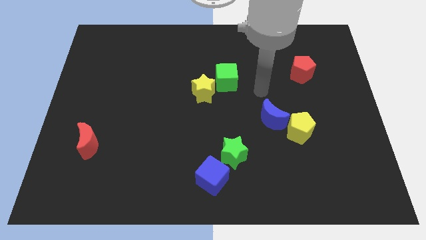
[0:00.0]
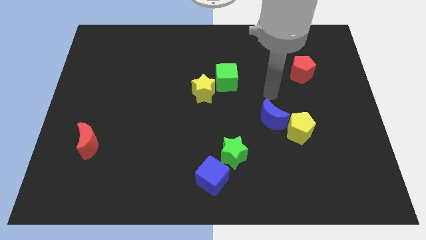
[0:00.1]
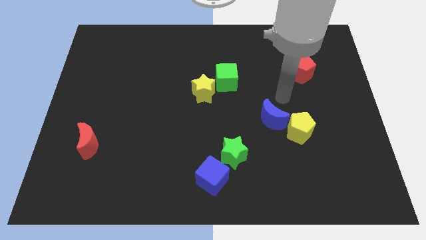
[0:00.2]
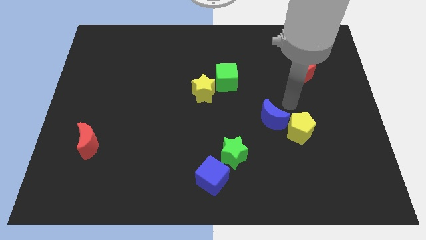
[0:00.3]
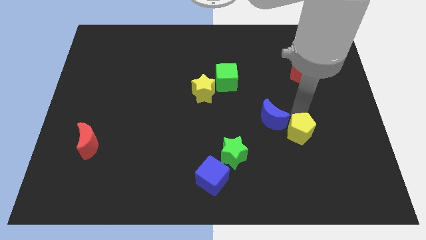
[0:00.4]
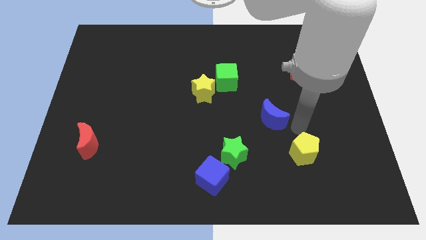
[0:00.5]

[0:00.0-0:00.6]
separate the blue moon from the yellow pentagon

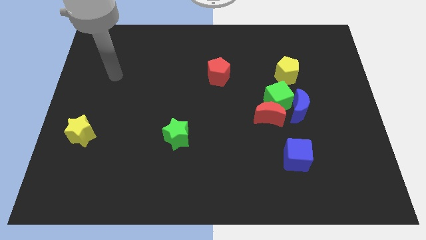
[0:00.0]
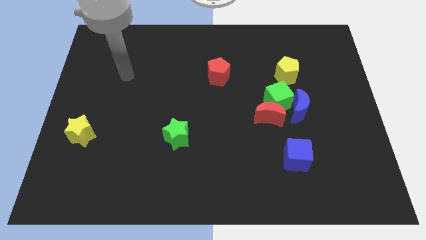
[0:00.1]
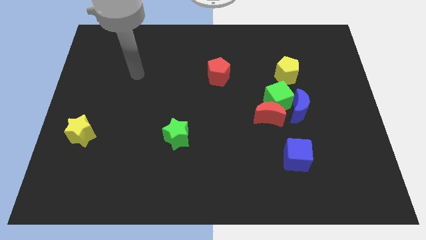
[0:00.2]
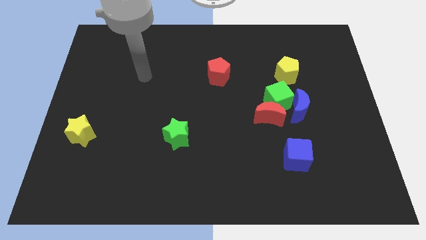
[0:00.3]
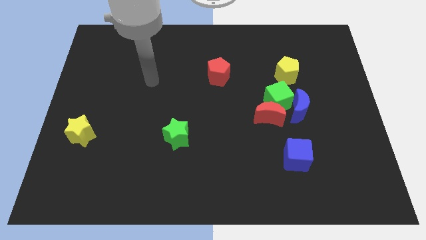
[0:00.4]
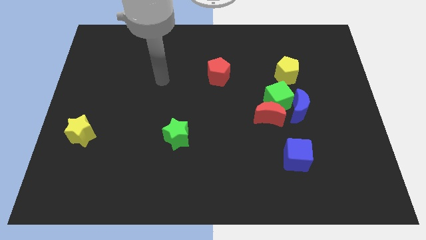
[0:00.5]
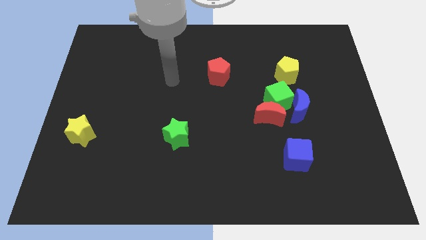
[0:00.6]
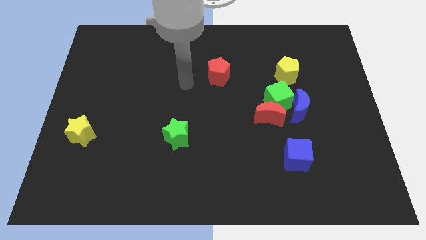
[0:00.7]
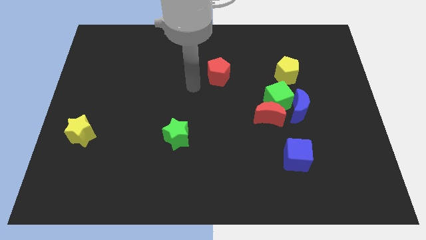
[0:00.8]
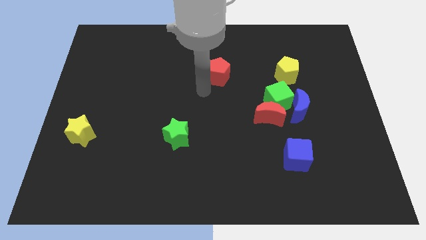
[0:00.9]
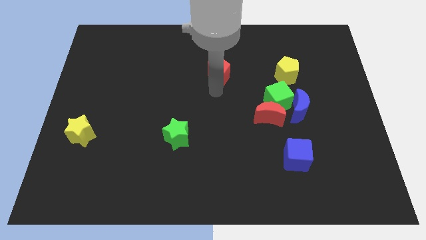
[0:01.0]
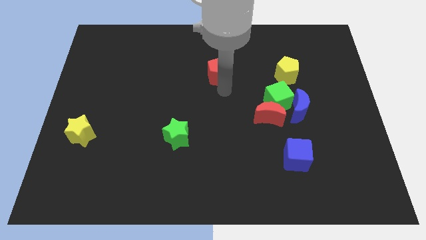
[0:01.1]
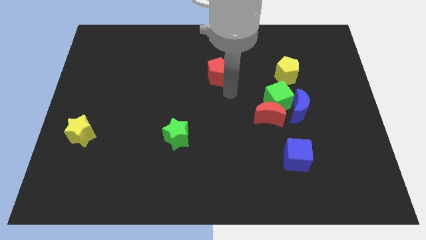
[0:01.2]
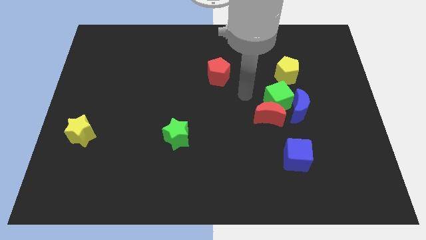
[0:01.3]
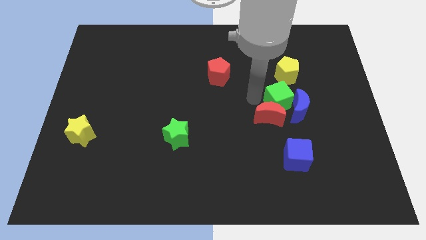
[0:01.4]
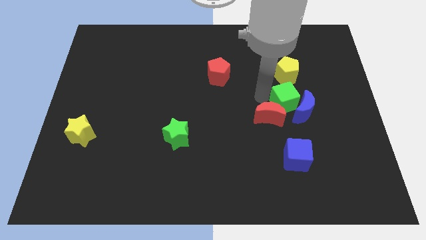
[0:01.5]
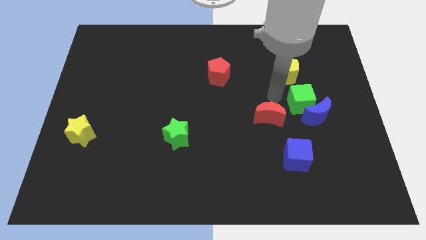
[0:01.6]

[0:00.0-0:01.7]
move the red moon away from the green cube and blue moon

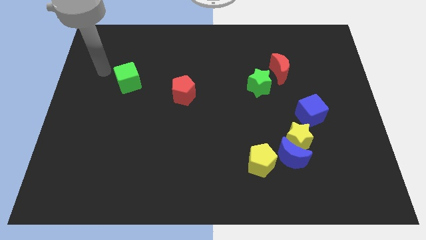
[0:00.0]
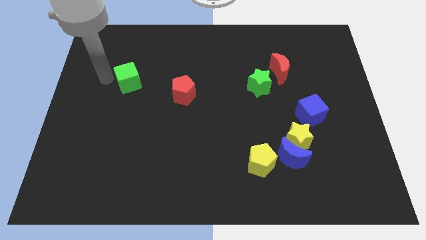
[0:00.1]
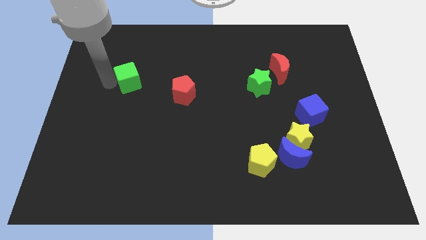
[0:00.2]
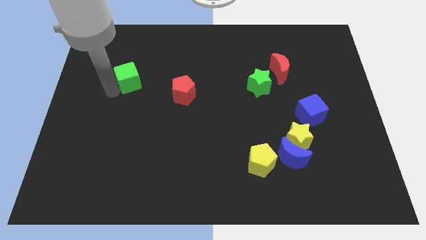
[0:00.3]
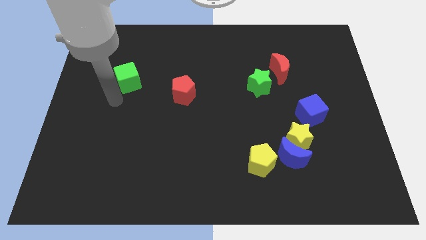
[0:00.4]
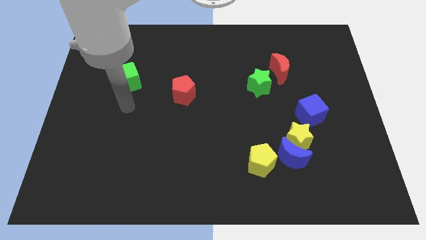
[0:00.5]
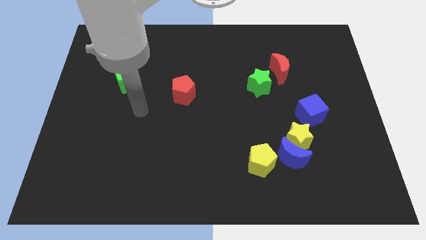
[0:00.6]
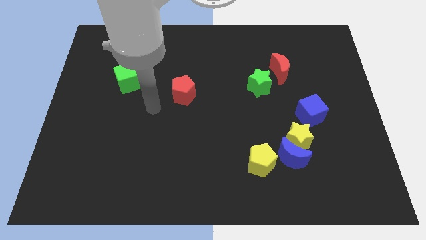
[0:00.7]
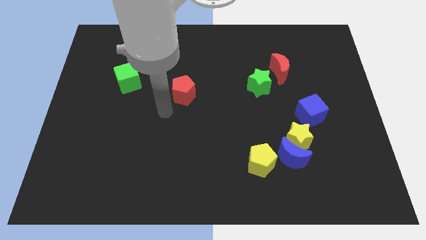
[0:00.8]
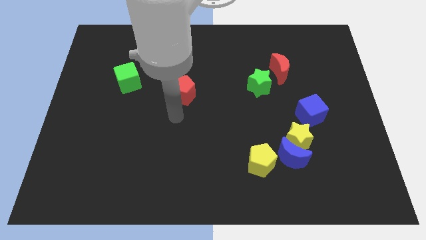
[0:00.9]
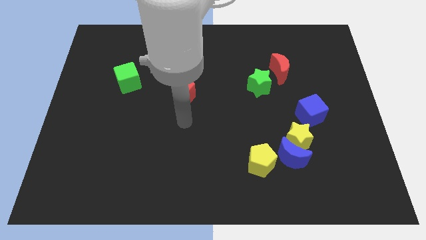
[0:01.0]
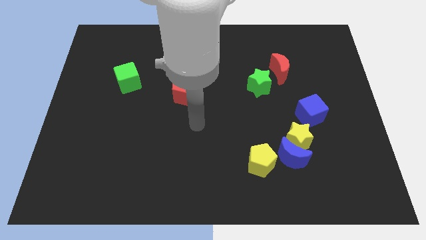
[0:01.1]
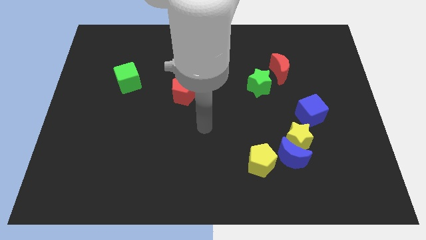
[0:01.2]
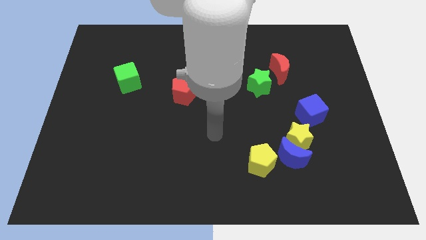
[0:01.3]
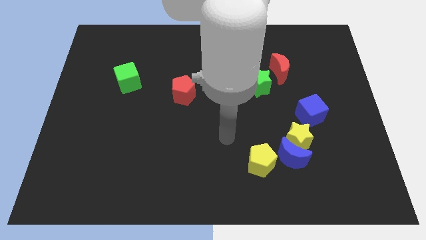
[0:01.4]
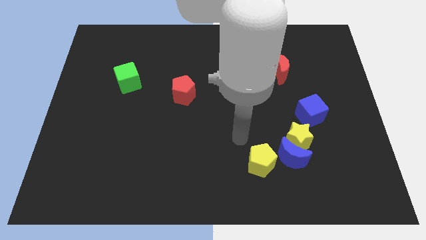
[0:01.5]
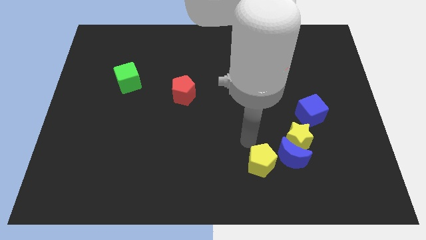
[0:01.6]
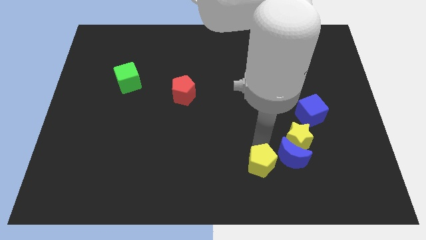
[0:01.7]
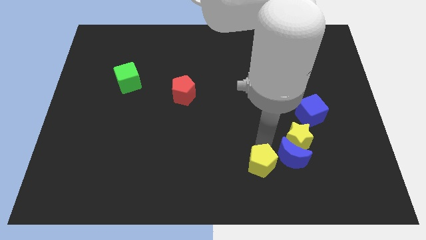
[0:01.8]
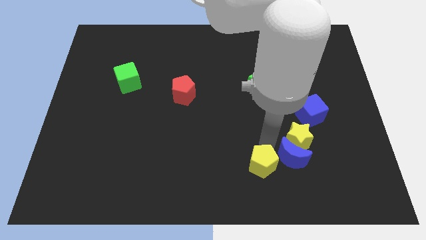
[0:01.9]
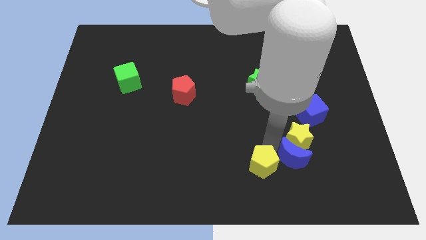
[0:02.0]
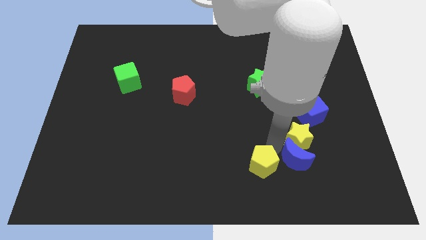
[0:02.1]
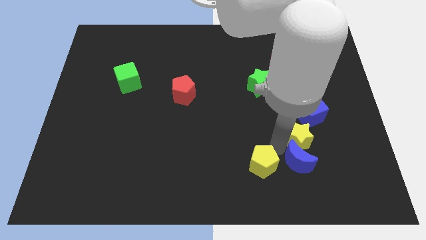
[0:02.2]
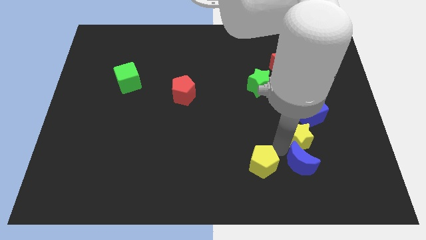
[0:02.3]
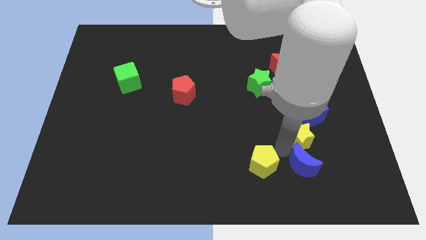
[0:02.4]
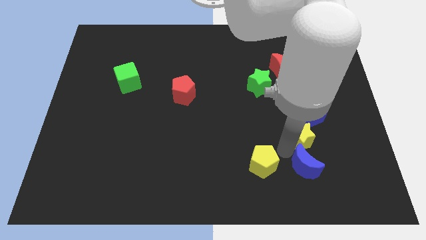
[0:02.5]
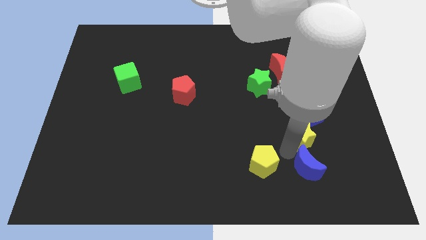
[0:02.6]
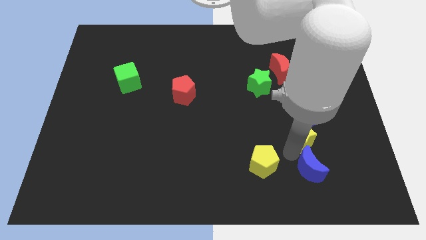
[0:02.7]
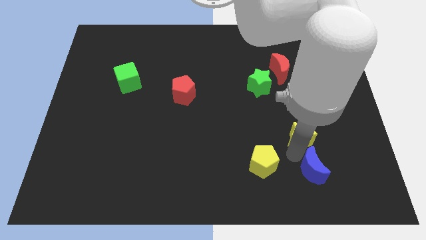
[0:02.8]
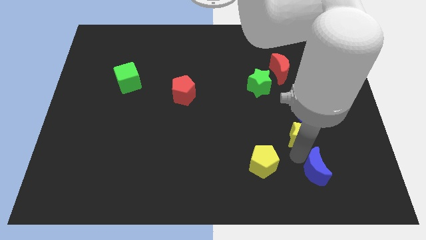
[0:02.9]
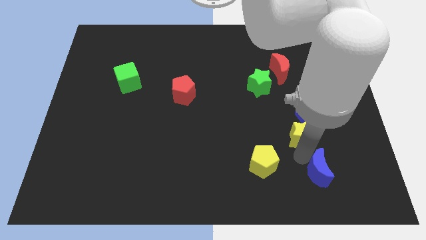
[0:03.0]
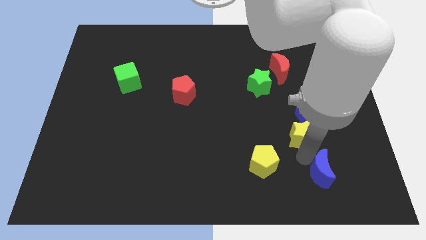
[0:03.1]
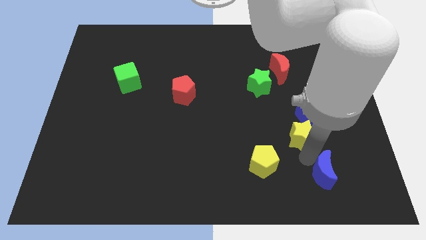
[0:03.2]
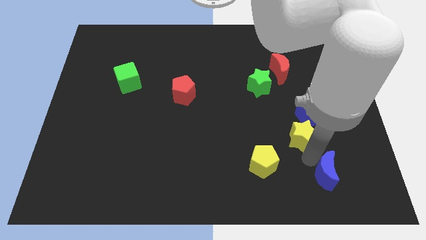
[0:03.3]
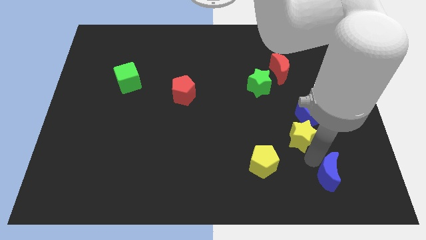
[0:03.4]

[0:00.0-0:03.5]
separate the blue moon from the yellow star and yellow pentagon

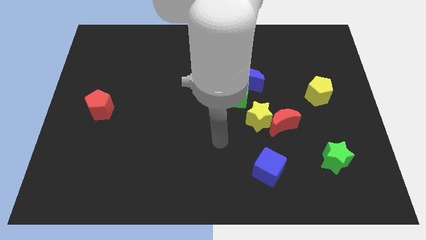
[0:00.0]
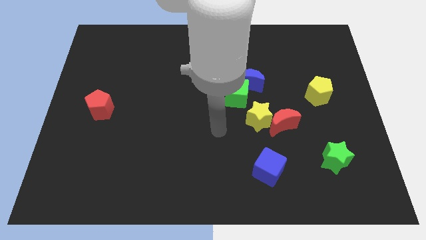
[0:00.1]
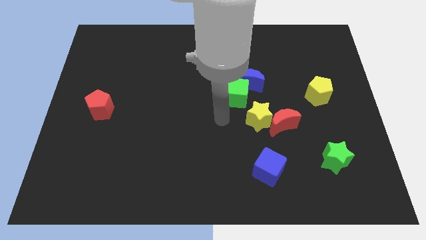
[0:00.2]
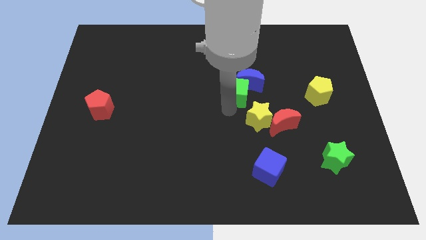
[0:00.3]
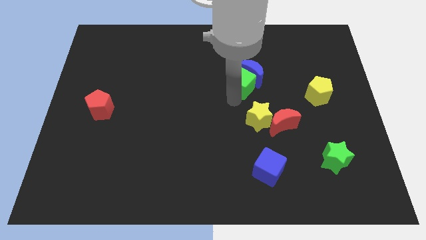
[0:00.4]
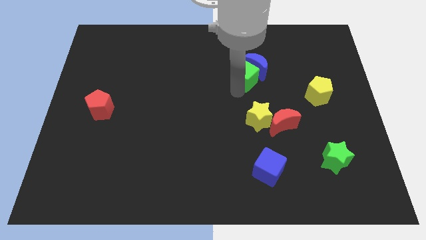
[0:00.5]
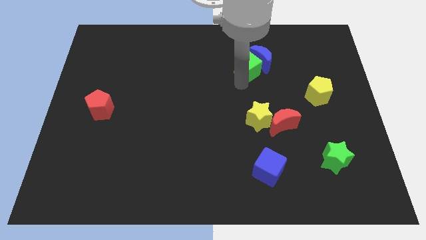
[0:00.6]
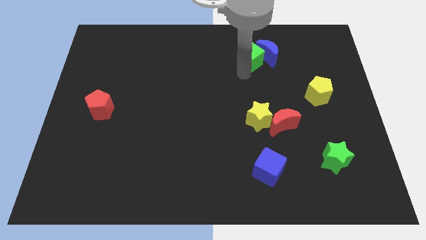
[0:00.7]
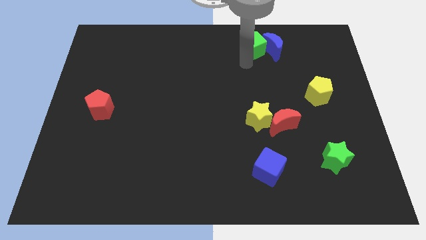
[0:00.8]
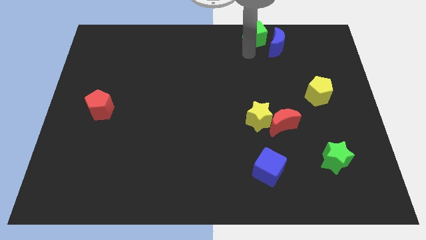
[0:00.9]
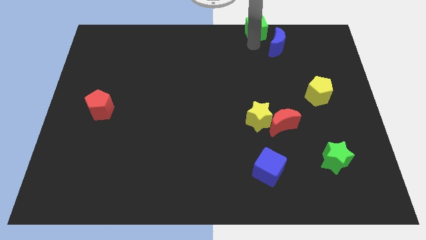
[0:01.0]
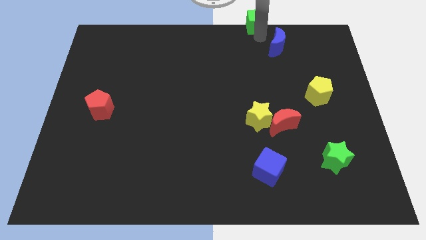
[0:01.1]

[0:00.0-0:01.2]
separate the blue moon from the green cube

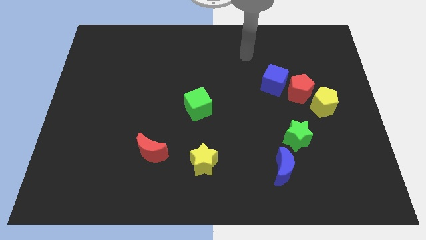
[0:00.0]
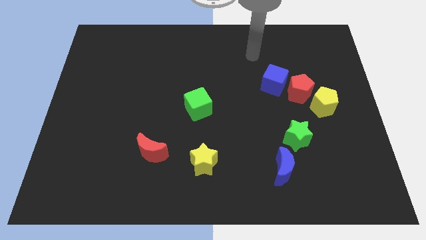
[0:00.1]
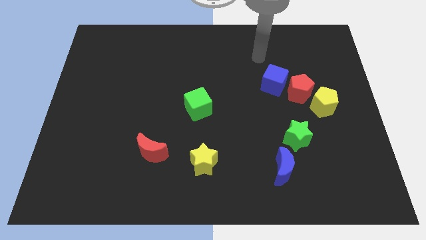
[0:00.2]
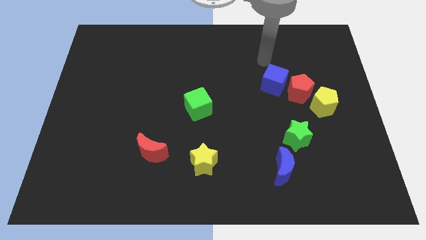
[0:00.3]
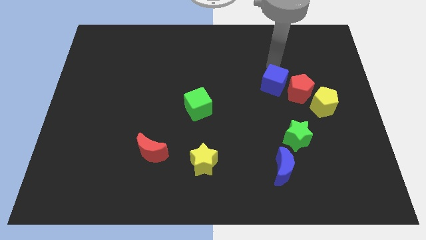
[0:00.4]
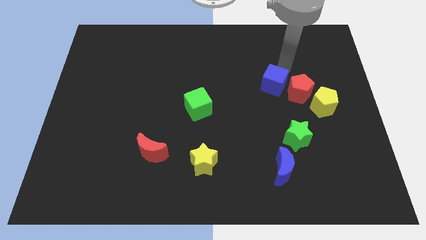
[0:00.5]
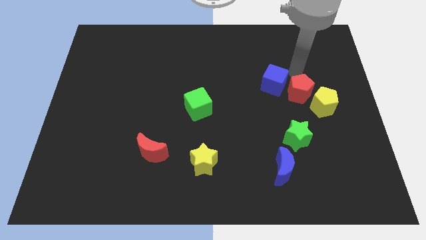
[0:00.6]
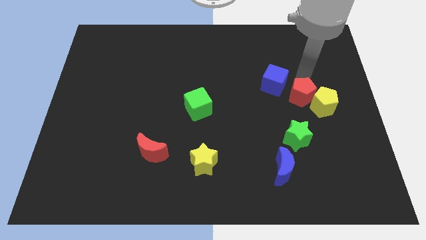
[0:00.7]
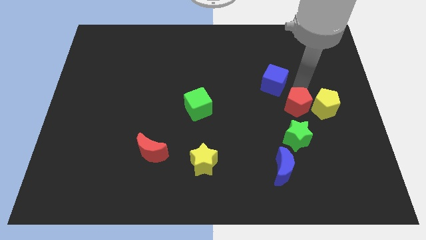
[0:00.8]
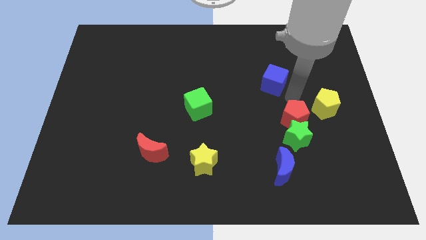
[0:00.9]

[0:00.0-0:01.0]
separate the blue cube from the red pentagon

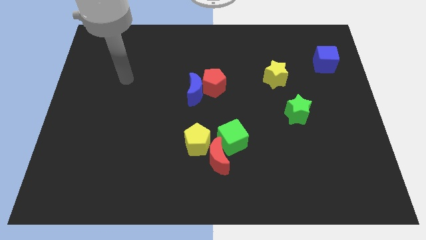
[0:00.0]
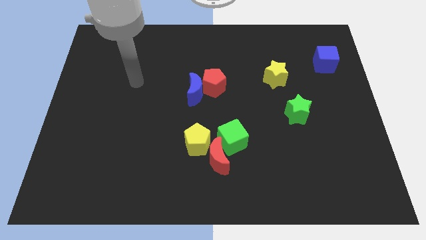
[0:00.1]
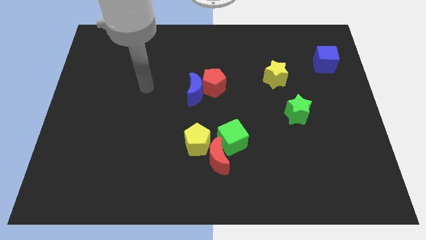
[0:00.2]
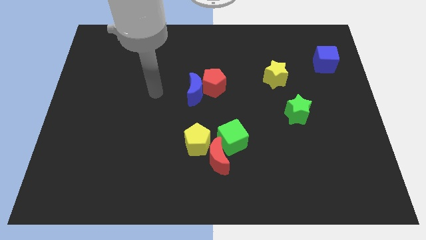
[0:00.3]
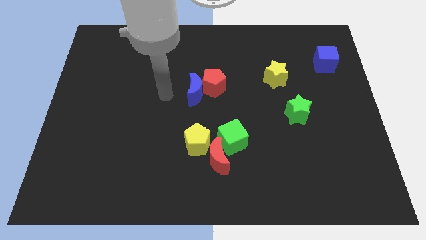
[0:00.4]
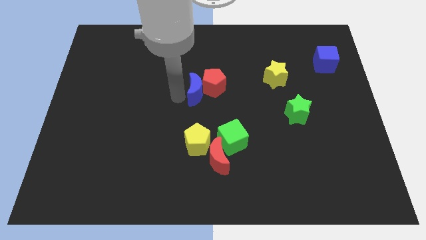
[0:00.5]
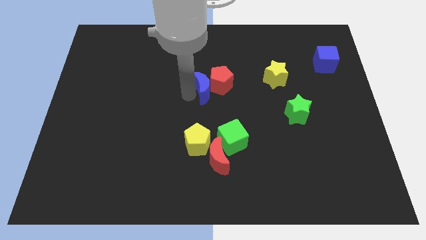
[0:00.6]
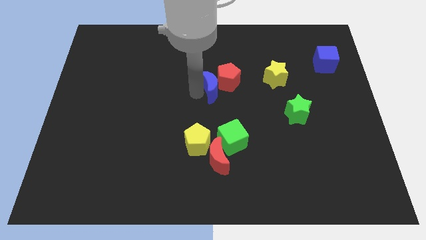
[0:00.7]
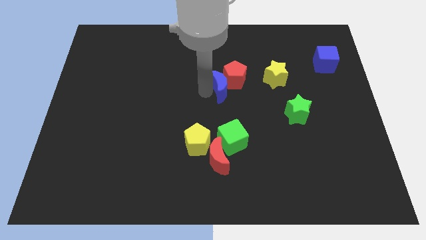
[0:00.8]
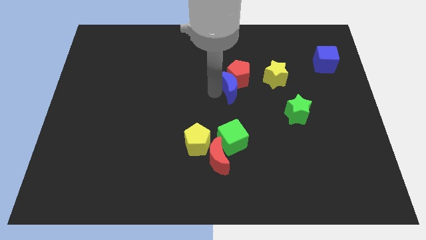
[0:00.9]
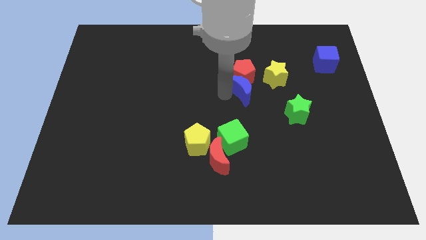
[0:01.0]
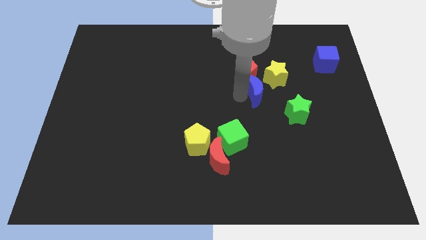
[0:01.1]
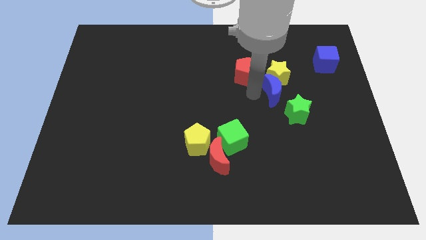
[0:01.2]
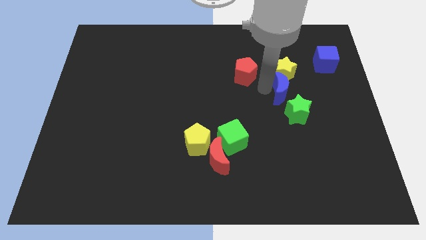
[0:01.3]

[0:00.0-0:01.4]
pull the red pentagon apart from the blue moon

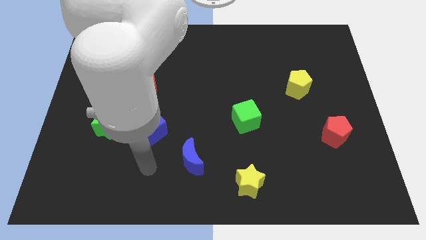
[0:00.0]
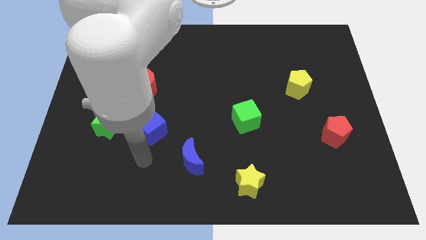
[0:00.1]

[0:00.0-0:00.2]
separate the blue cube from the green star
